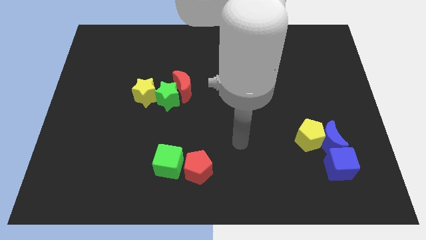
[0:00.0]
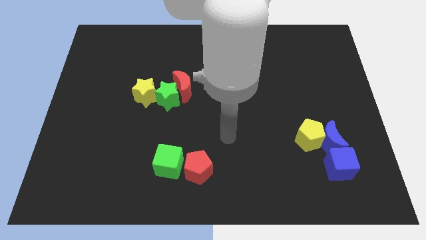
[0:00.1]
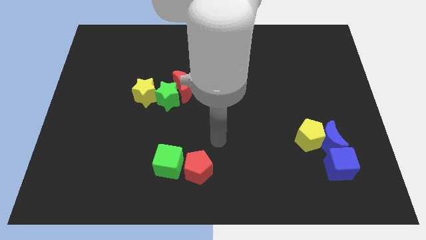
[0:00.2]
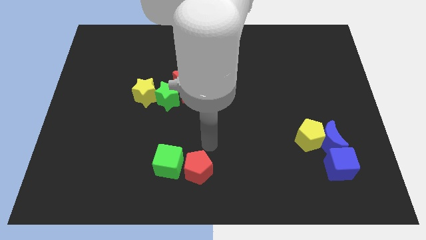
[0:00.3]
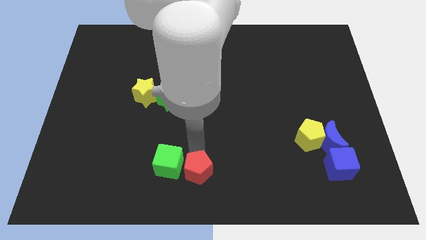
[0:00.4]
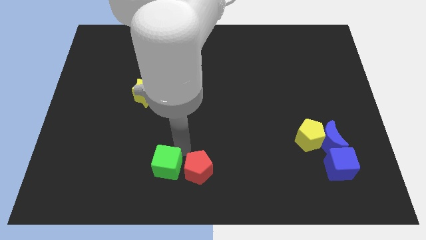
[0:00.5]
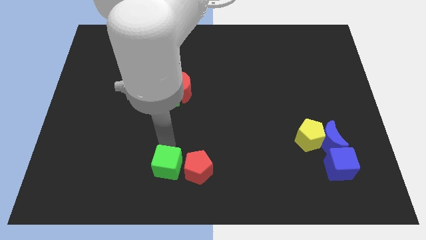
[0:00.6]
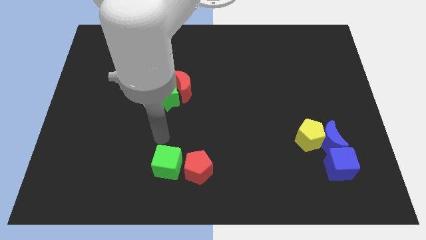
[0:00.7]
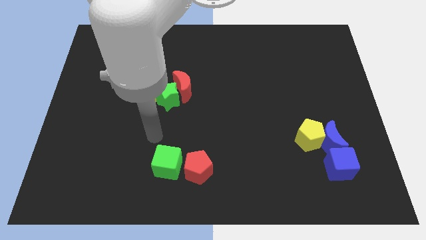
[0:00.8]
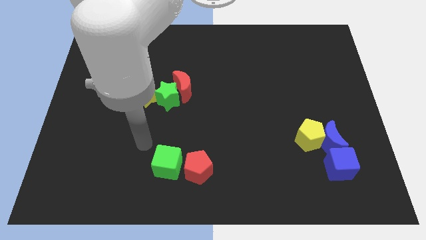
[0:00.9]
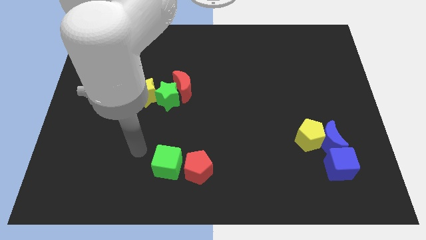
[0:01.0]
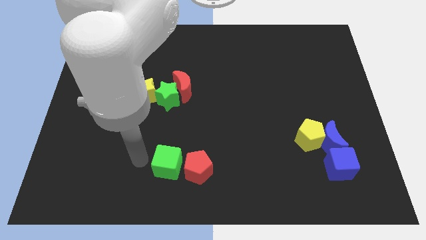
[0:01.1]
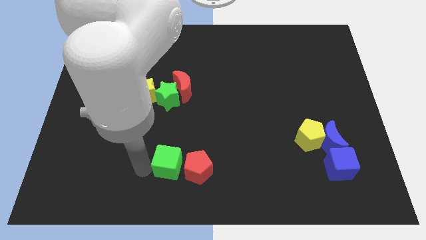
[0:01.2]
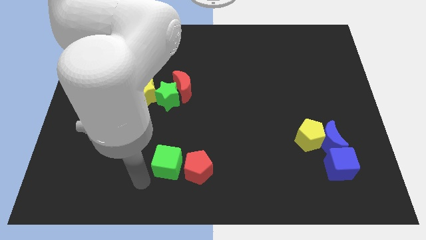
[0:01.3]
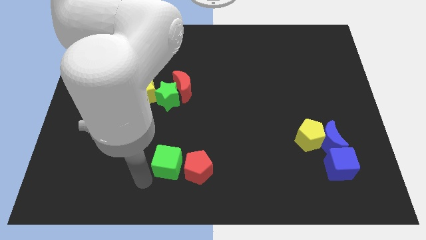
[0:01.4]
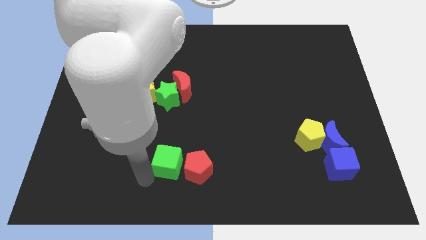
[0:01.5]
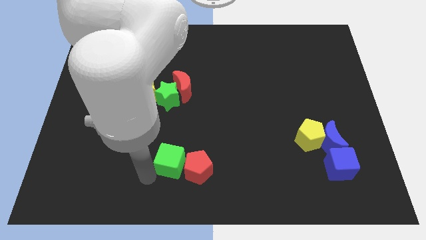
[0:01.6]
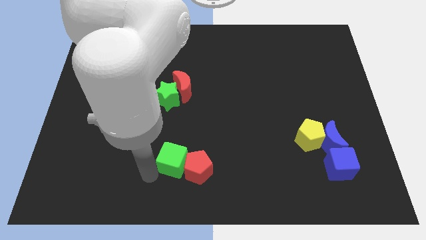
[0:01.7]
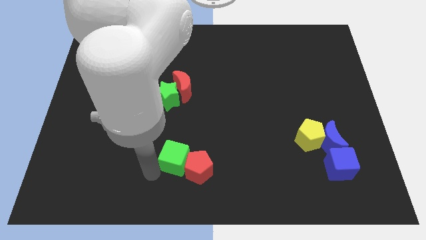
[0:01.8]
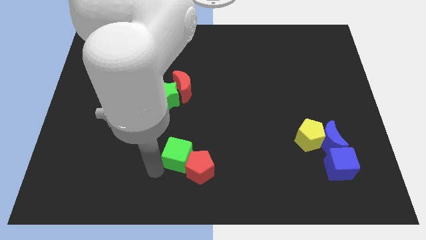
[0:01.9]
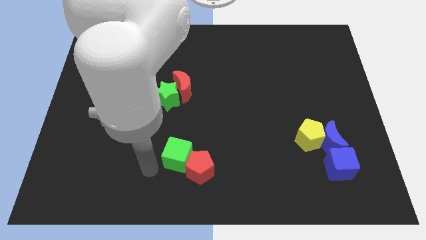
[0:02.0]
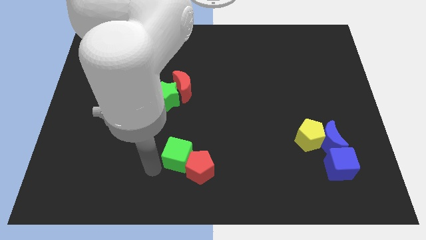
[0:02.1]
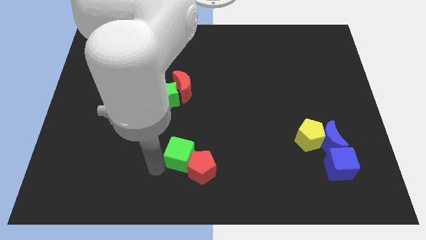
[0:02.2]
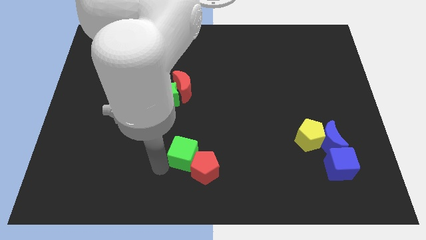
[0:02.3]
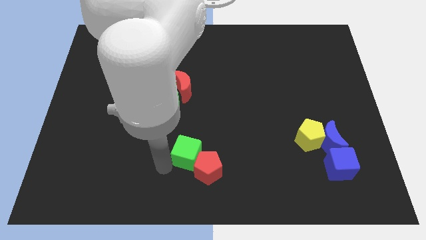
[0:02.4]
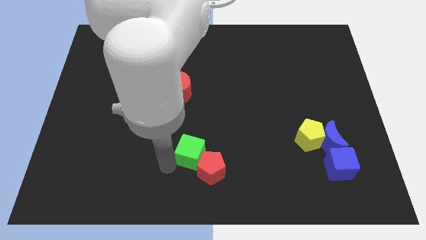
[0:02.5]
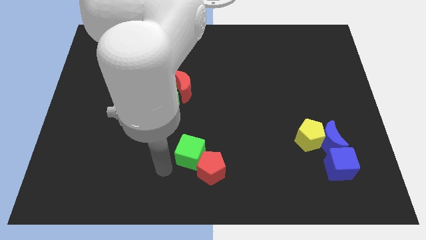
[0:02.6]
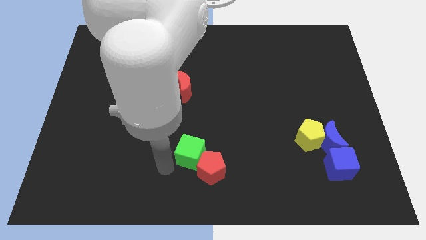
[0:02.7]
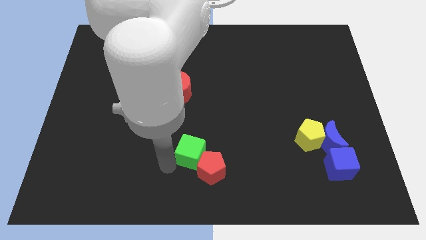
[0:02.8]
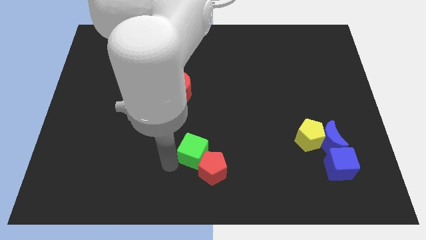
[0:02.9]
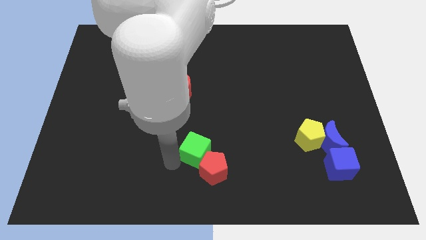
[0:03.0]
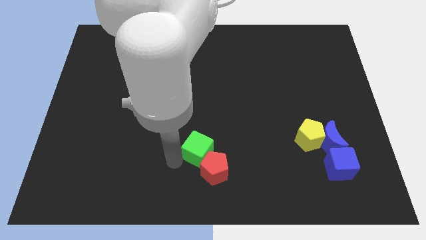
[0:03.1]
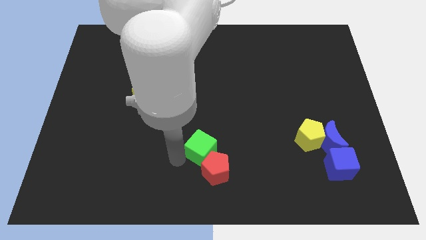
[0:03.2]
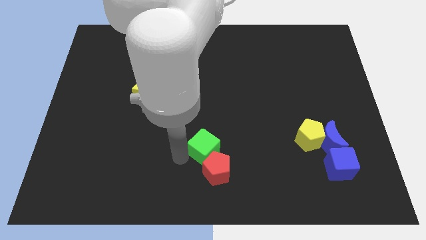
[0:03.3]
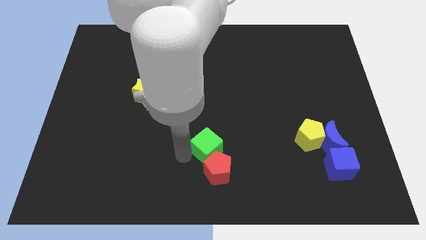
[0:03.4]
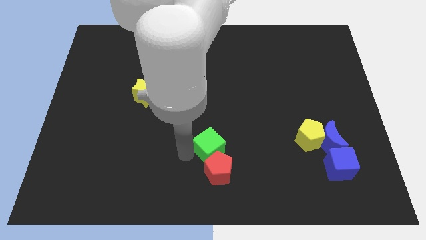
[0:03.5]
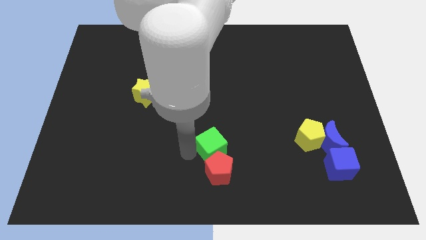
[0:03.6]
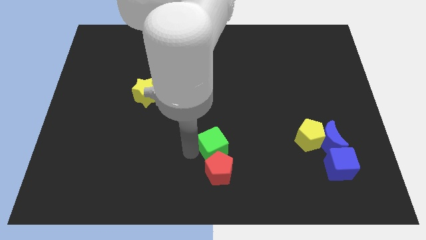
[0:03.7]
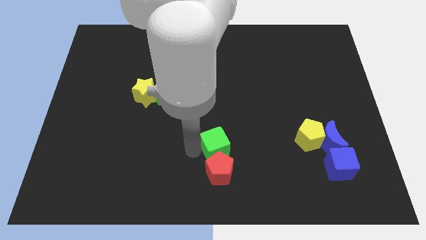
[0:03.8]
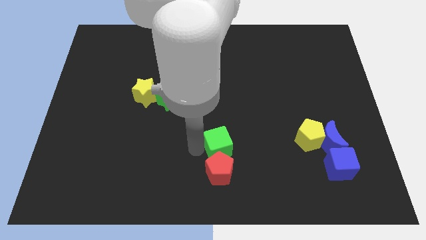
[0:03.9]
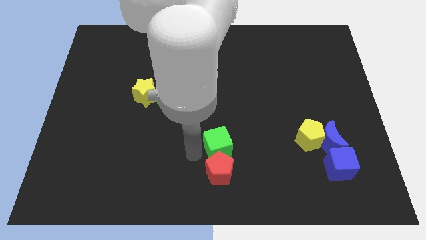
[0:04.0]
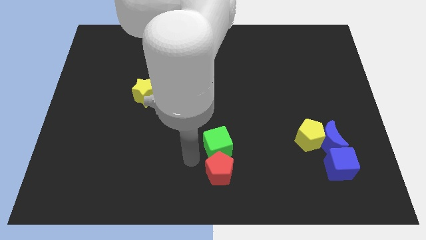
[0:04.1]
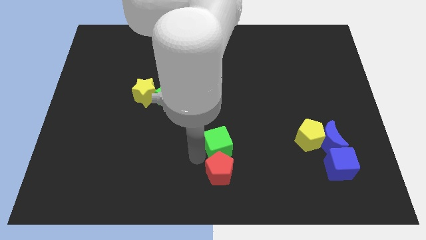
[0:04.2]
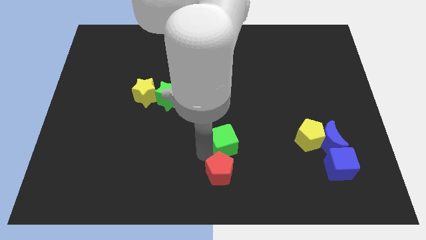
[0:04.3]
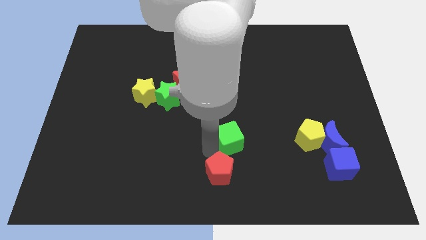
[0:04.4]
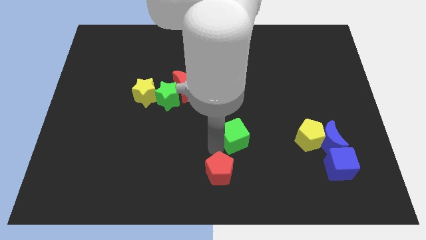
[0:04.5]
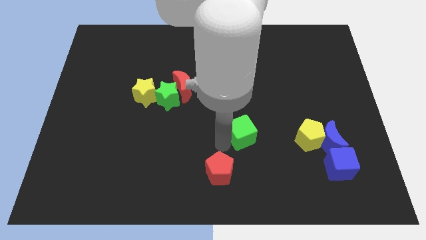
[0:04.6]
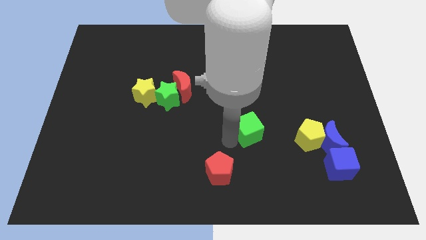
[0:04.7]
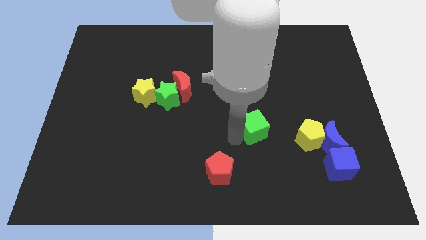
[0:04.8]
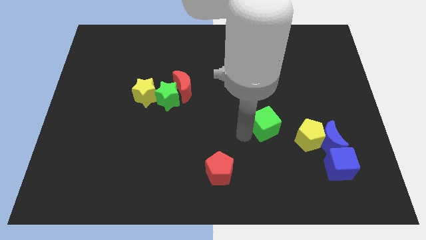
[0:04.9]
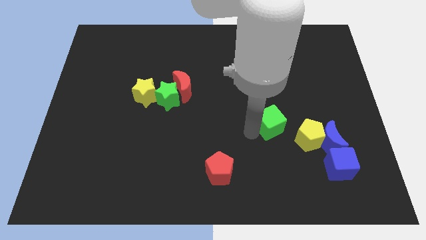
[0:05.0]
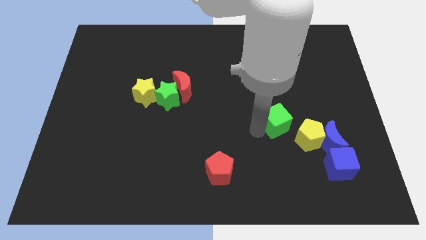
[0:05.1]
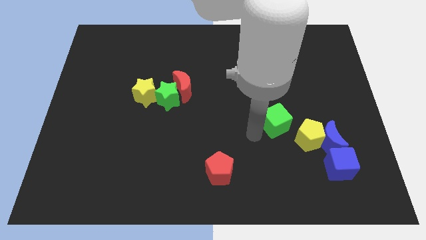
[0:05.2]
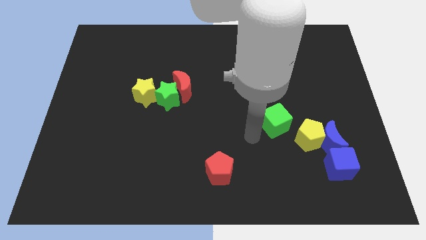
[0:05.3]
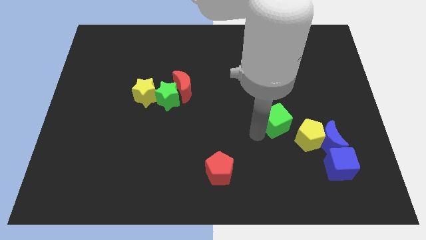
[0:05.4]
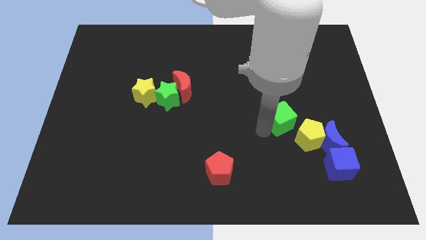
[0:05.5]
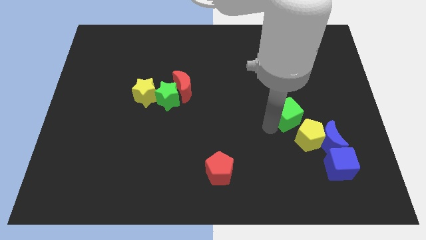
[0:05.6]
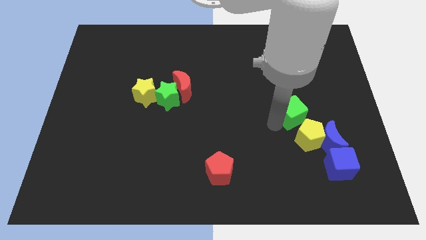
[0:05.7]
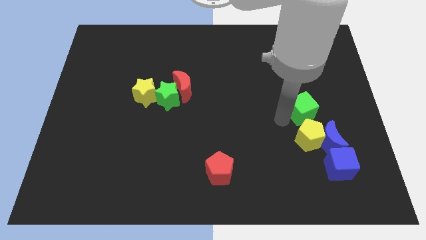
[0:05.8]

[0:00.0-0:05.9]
push the green cube to the top of the blue moon
